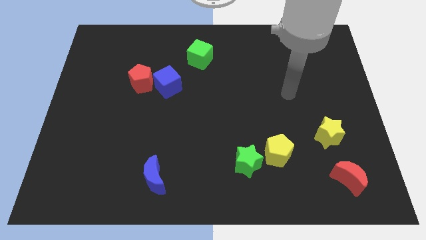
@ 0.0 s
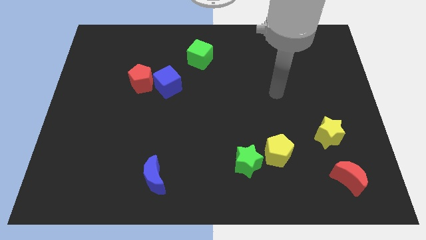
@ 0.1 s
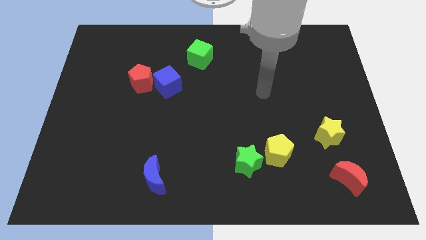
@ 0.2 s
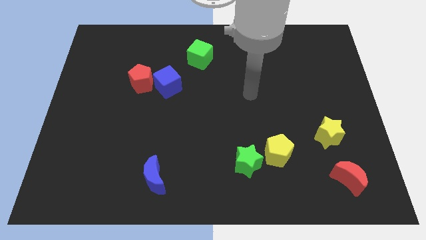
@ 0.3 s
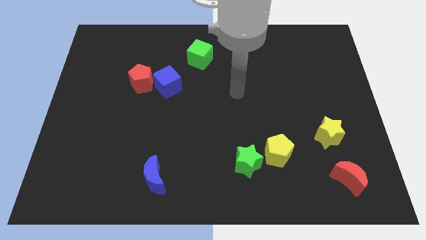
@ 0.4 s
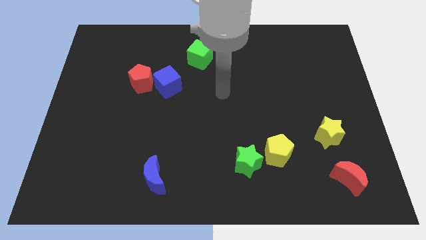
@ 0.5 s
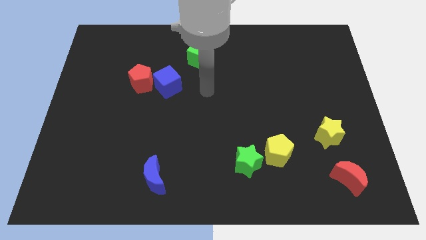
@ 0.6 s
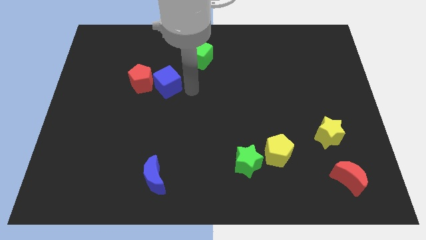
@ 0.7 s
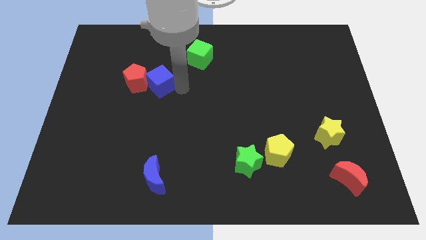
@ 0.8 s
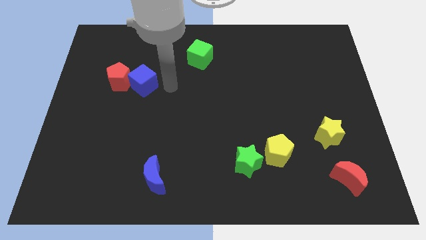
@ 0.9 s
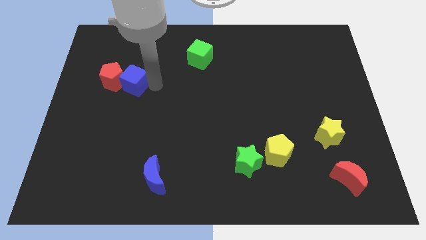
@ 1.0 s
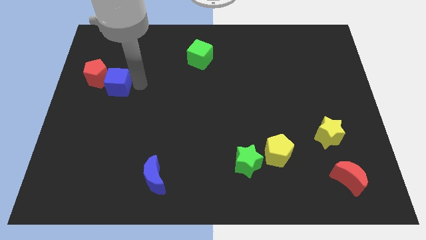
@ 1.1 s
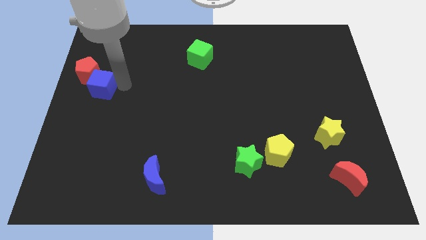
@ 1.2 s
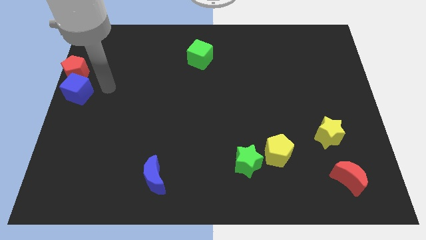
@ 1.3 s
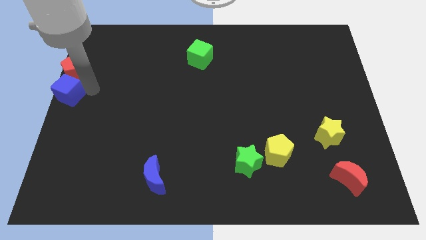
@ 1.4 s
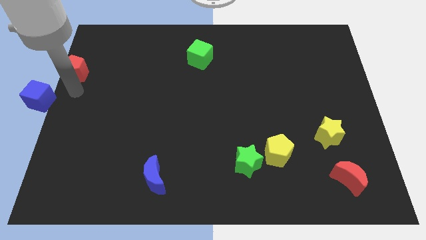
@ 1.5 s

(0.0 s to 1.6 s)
separate the red pentagon from the blue cube

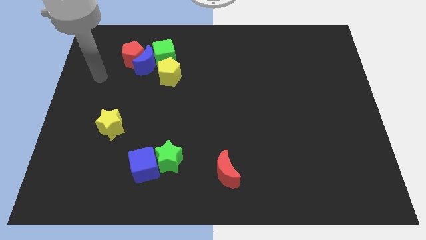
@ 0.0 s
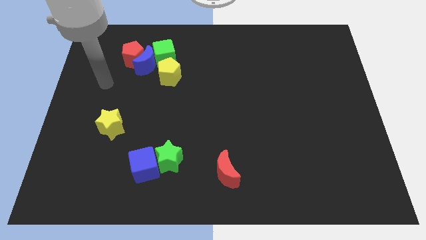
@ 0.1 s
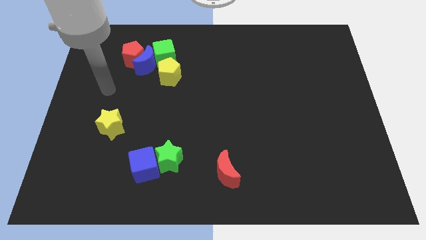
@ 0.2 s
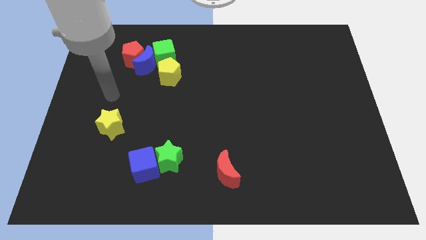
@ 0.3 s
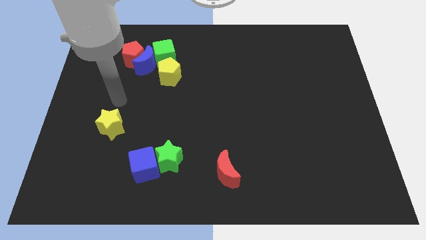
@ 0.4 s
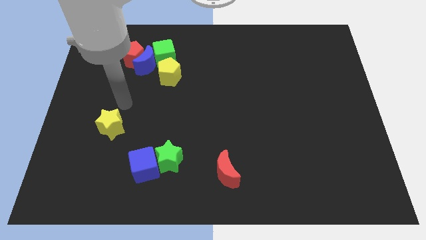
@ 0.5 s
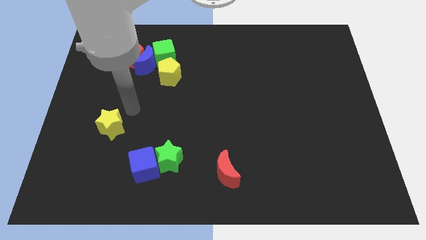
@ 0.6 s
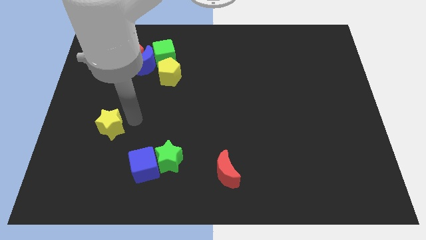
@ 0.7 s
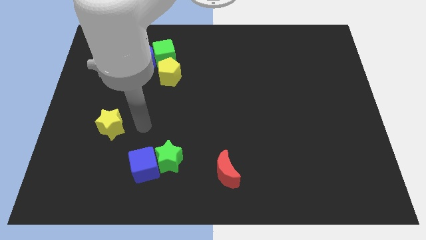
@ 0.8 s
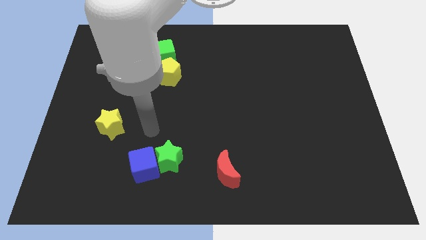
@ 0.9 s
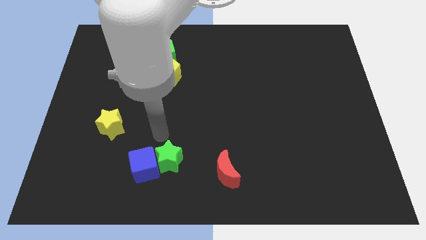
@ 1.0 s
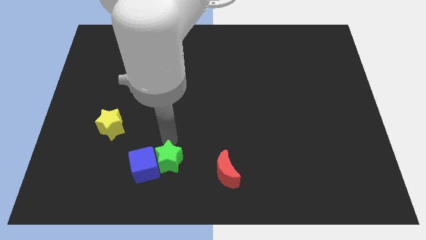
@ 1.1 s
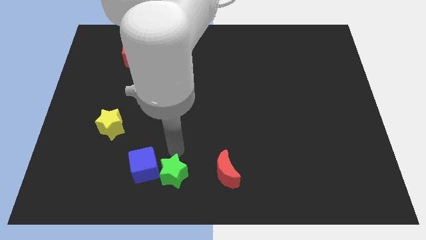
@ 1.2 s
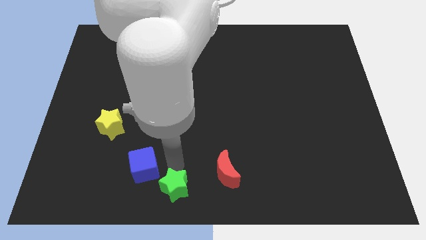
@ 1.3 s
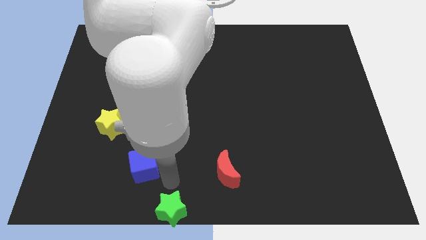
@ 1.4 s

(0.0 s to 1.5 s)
pull the blue cube apart from the green star

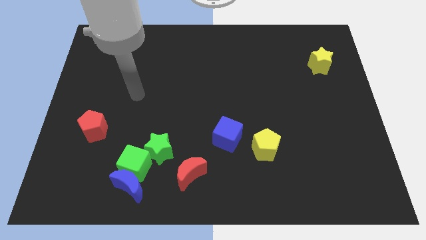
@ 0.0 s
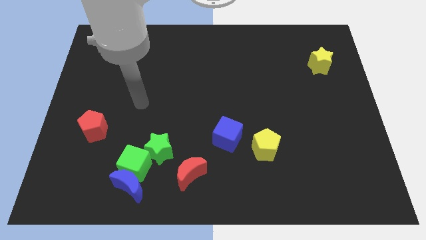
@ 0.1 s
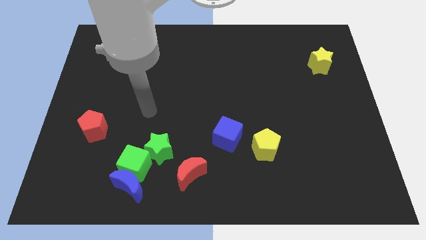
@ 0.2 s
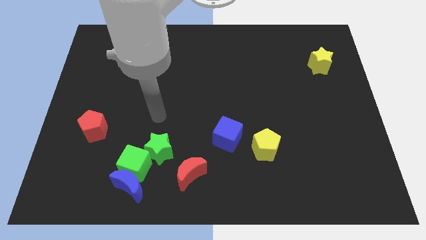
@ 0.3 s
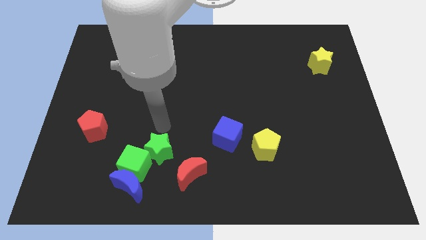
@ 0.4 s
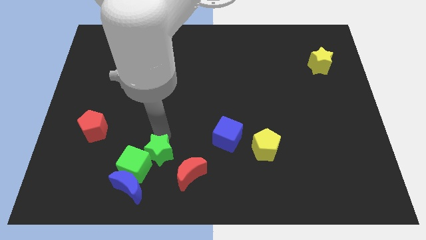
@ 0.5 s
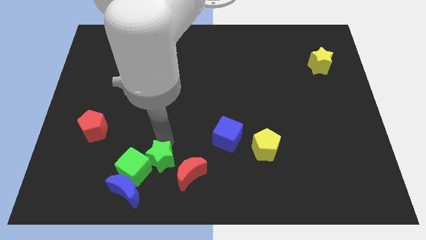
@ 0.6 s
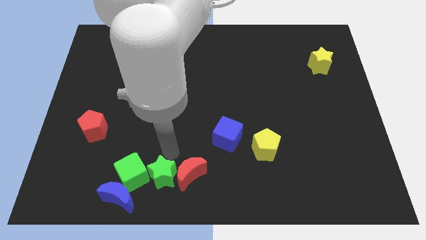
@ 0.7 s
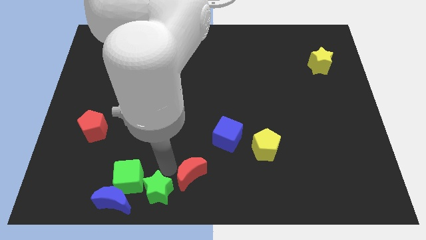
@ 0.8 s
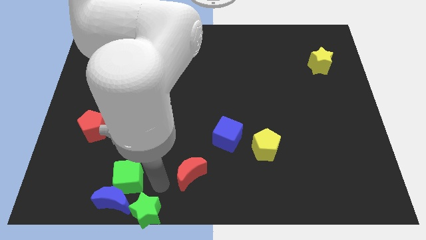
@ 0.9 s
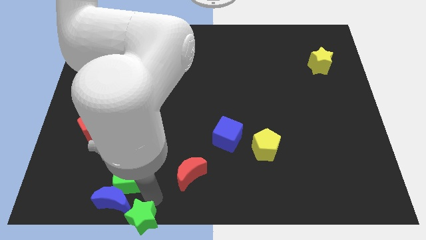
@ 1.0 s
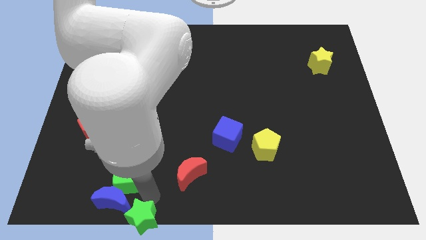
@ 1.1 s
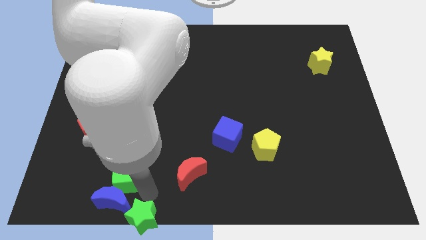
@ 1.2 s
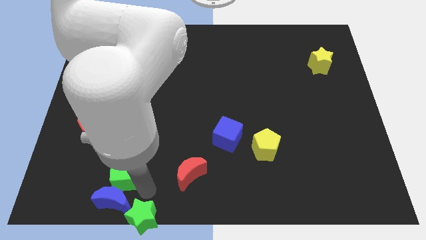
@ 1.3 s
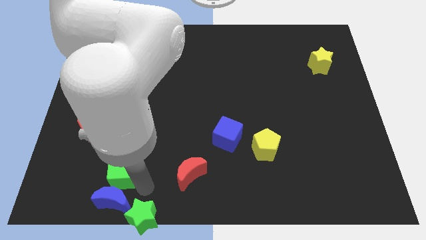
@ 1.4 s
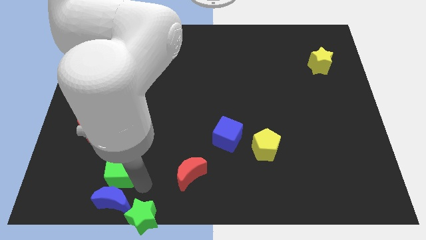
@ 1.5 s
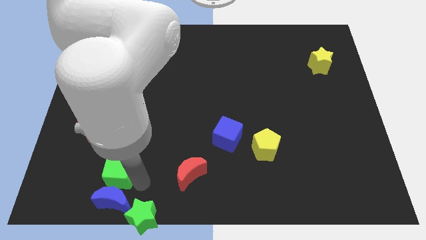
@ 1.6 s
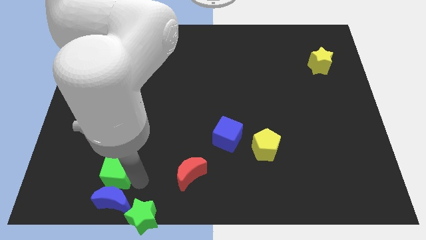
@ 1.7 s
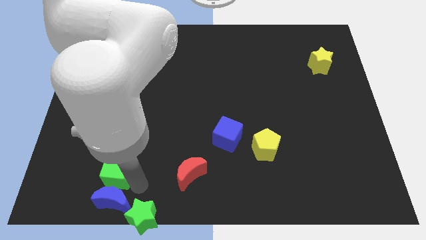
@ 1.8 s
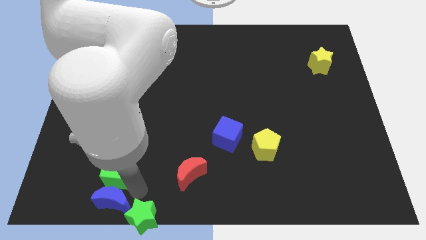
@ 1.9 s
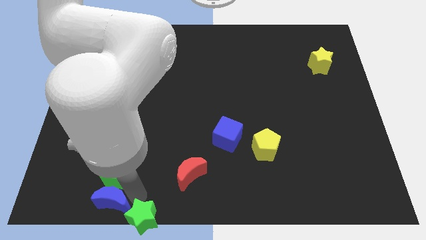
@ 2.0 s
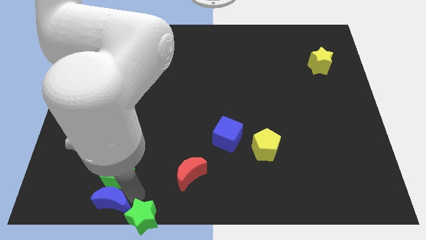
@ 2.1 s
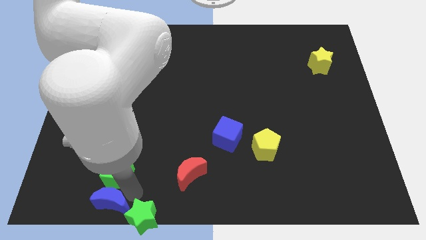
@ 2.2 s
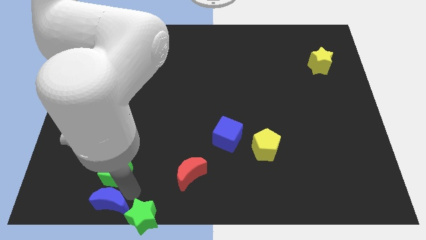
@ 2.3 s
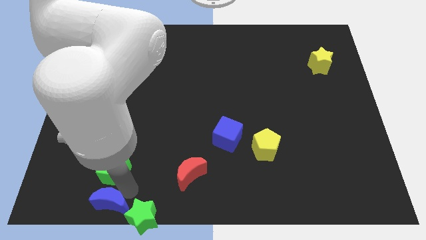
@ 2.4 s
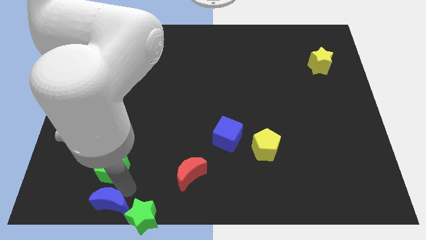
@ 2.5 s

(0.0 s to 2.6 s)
separate the green cube from the blue moon and green star

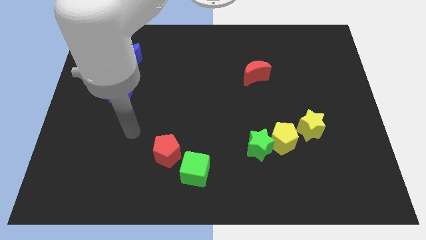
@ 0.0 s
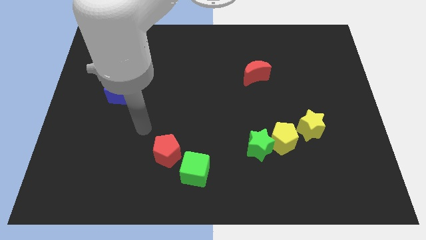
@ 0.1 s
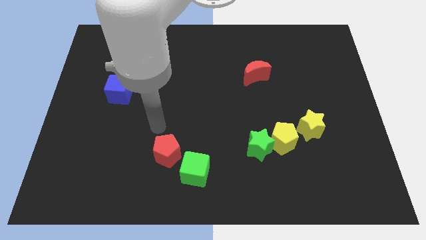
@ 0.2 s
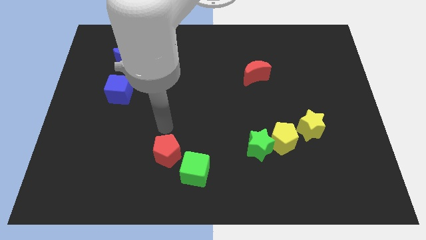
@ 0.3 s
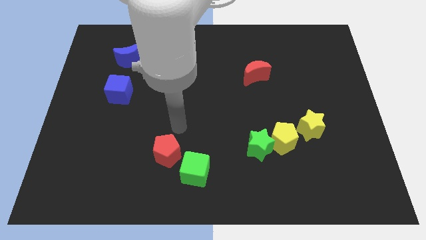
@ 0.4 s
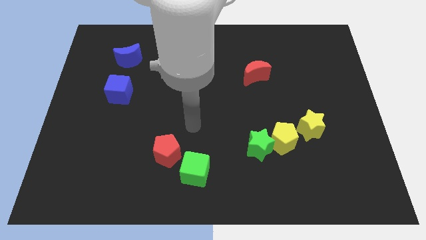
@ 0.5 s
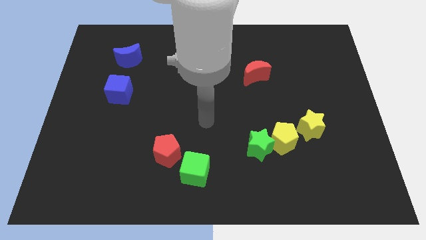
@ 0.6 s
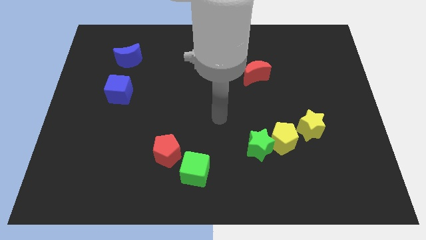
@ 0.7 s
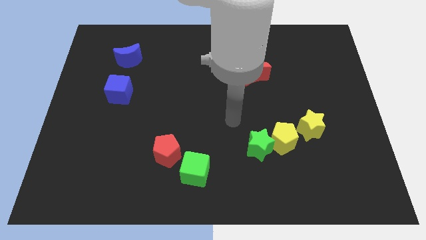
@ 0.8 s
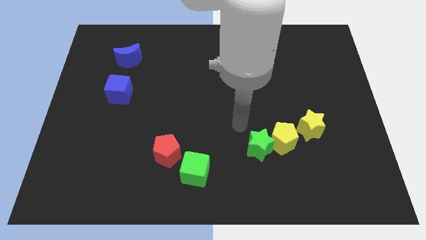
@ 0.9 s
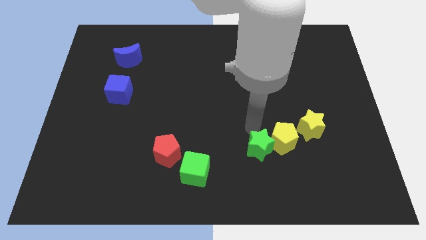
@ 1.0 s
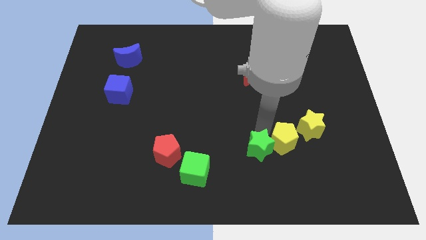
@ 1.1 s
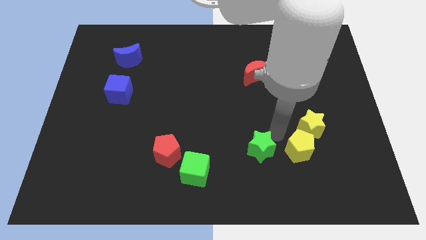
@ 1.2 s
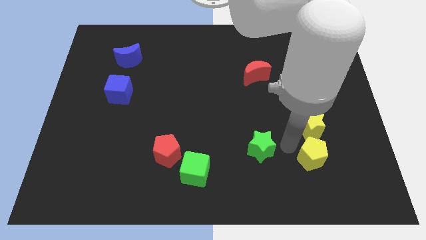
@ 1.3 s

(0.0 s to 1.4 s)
pull the green star apart from the yellow pentagon

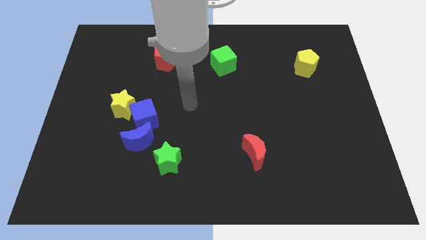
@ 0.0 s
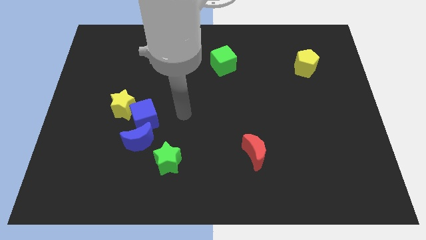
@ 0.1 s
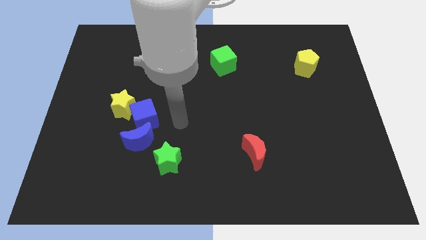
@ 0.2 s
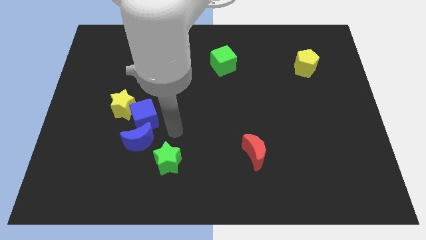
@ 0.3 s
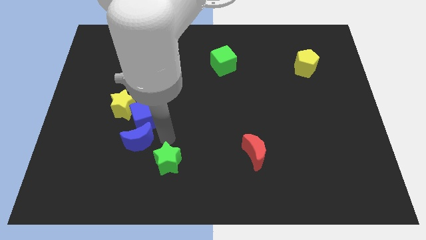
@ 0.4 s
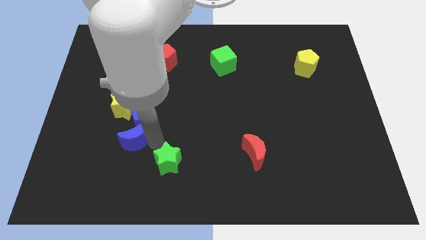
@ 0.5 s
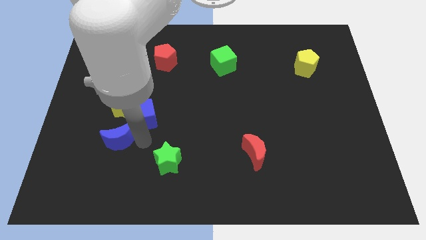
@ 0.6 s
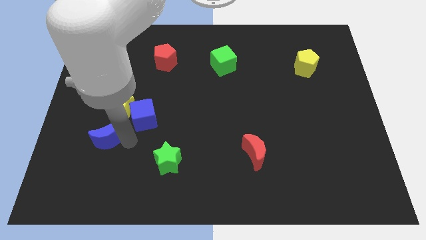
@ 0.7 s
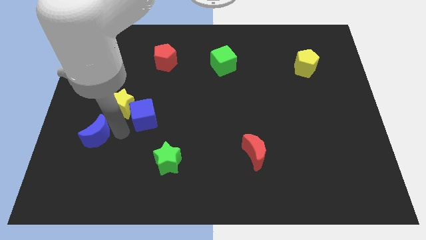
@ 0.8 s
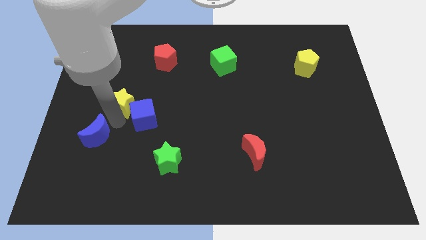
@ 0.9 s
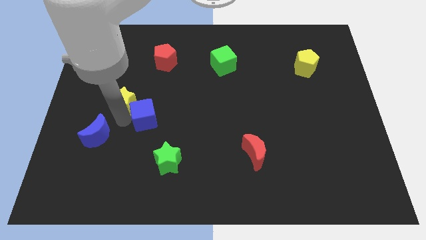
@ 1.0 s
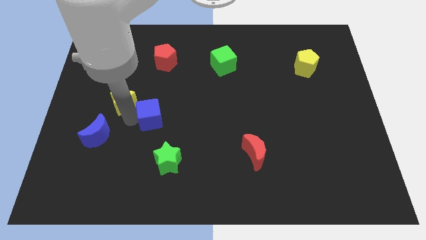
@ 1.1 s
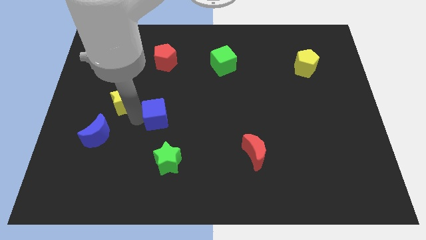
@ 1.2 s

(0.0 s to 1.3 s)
pull the blue cube apart from the yellow star and blue moon

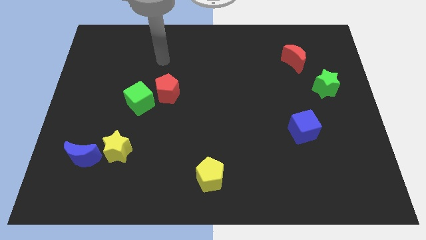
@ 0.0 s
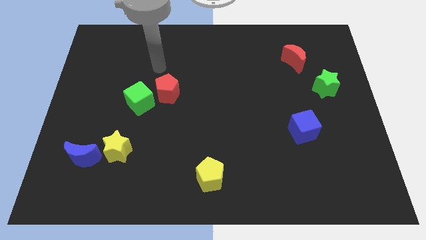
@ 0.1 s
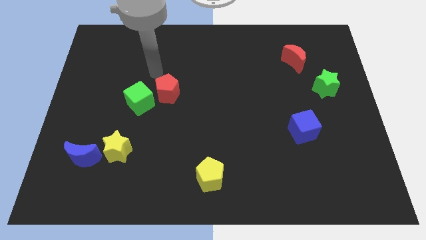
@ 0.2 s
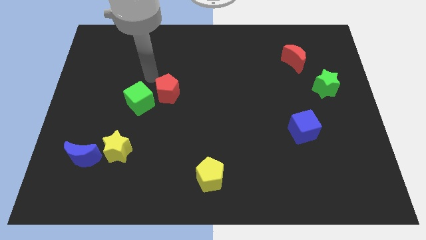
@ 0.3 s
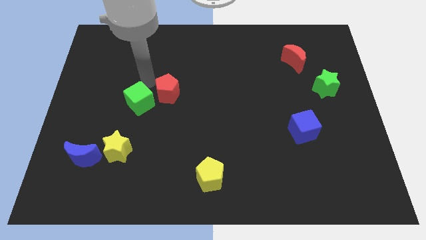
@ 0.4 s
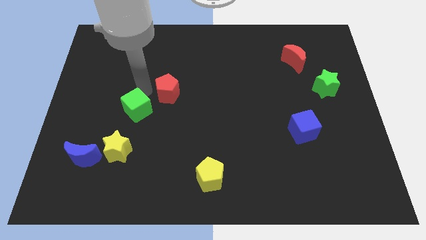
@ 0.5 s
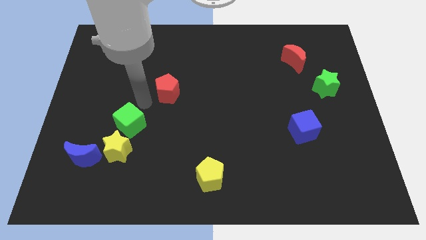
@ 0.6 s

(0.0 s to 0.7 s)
pull the red pentagon apart from the green cube

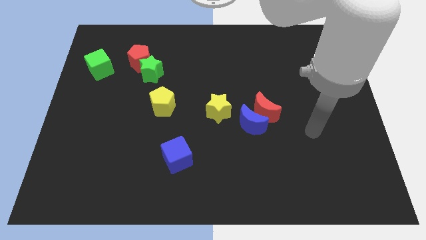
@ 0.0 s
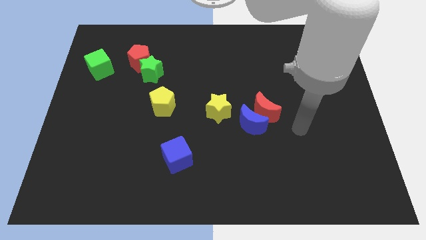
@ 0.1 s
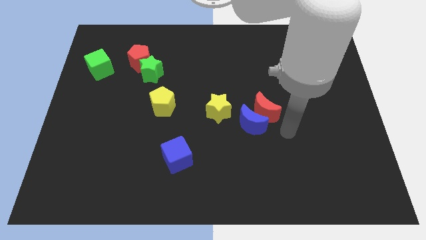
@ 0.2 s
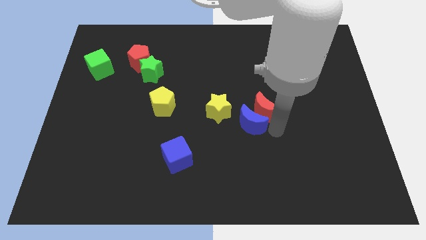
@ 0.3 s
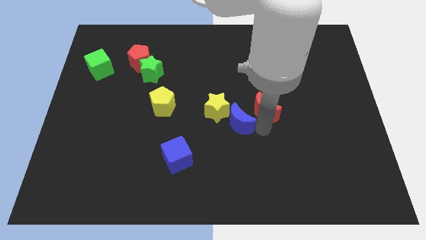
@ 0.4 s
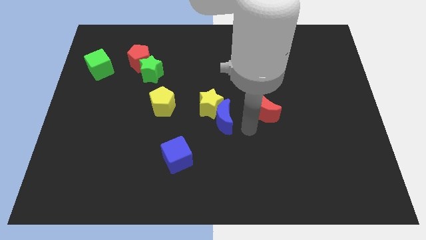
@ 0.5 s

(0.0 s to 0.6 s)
move the red moon away from the blue moon
